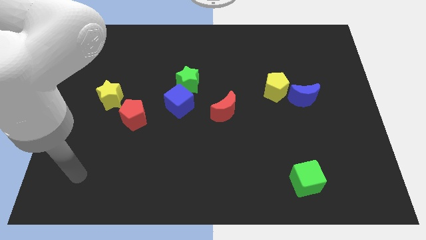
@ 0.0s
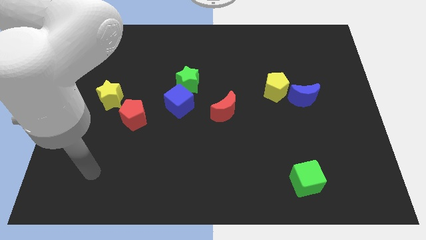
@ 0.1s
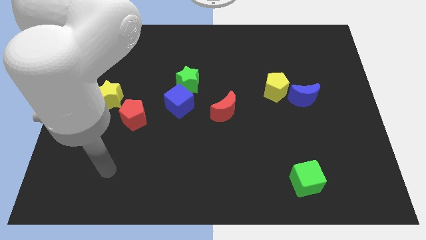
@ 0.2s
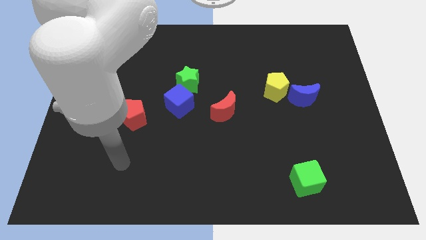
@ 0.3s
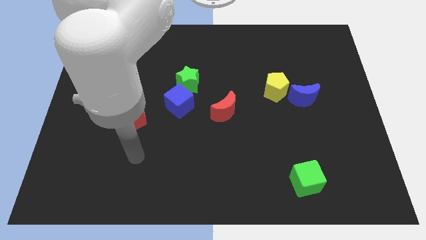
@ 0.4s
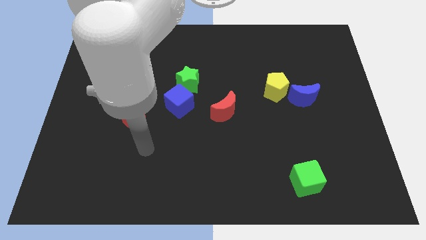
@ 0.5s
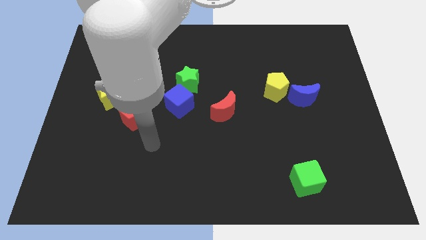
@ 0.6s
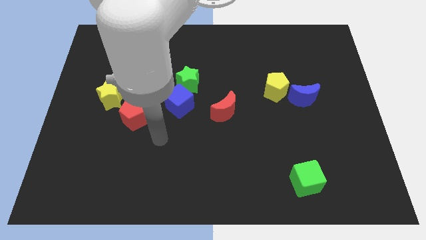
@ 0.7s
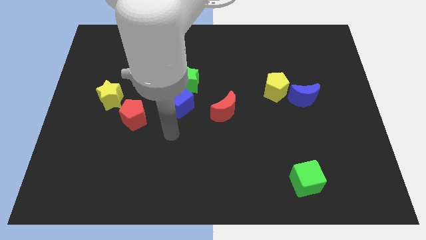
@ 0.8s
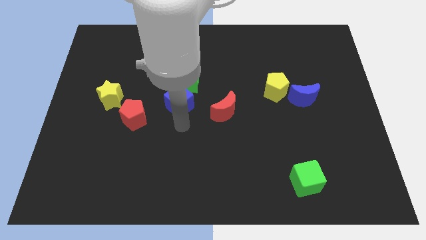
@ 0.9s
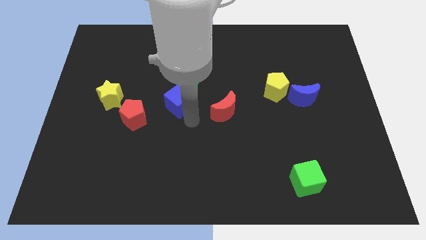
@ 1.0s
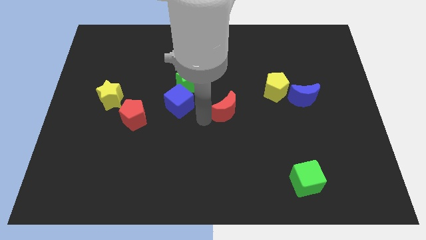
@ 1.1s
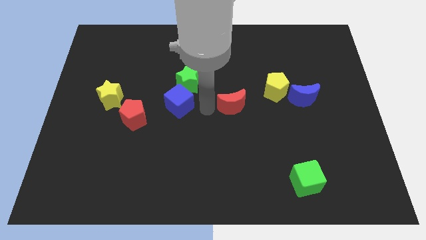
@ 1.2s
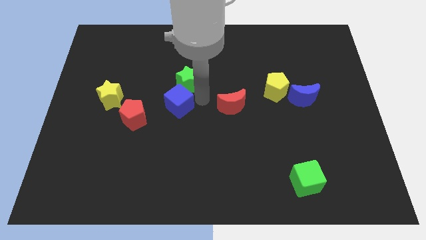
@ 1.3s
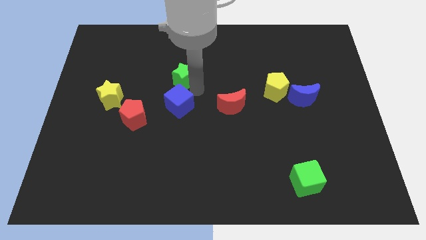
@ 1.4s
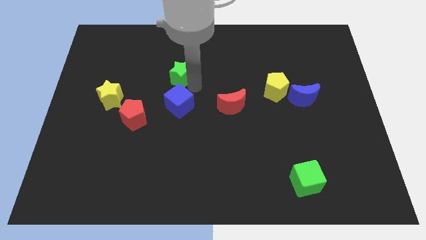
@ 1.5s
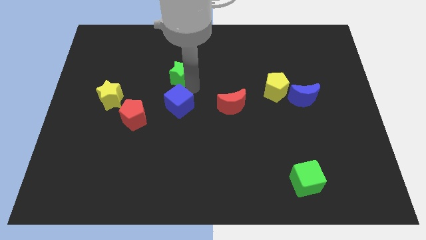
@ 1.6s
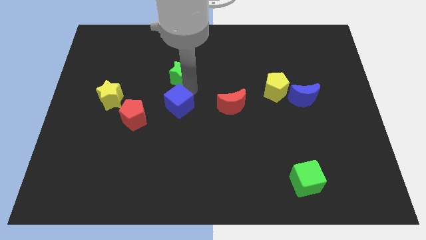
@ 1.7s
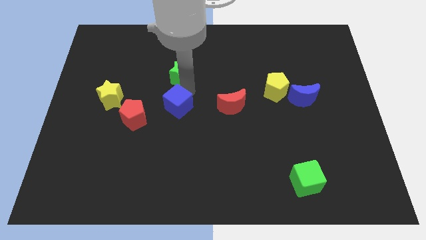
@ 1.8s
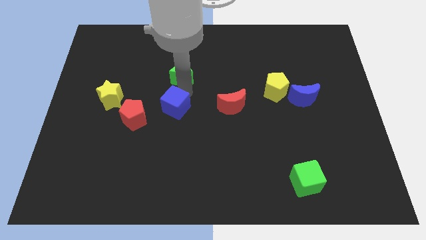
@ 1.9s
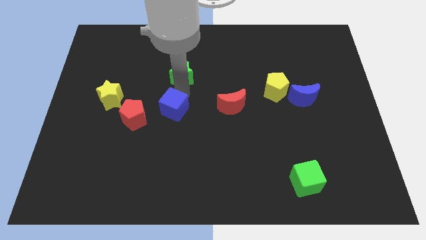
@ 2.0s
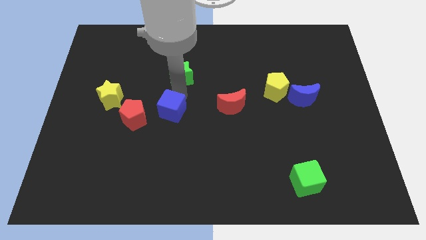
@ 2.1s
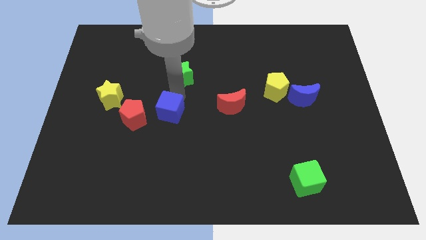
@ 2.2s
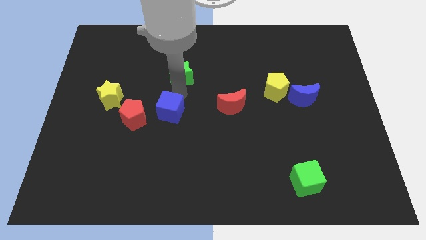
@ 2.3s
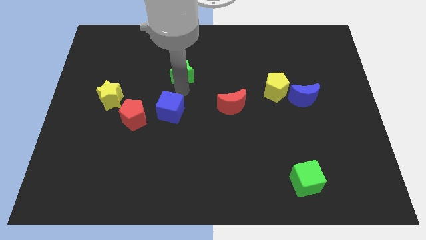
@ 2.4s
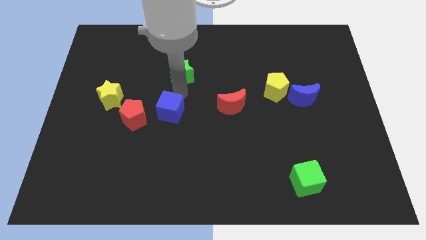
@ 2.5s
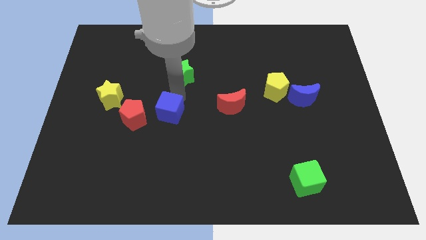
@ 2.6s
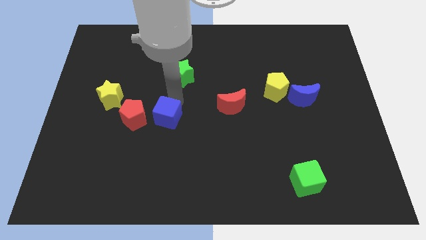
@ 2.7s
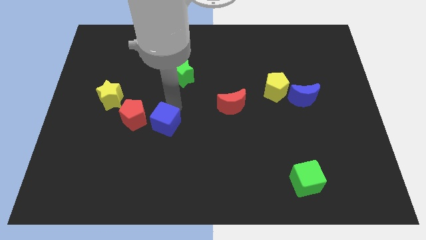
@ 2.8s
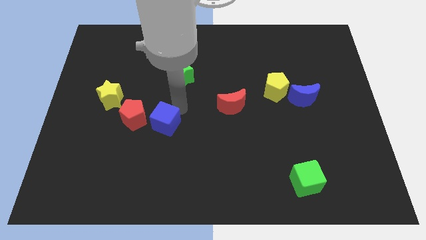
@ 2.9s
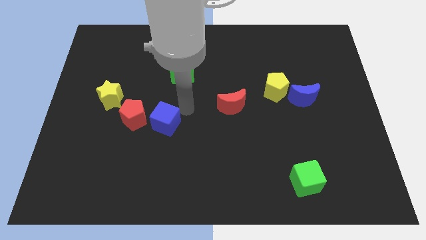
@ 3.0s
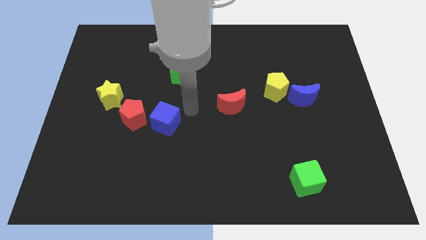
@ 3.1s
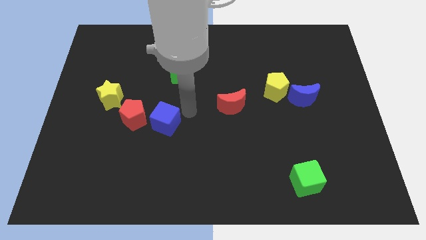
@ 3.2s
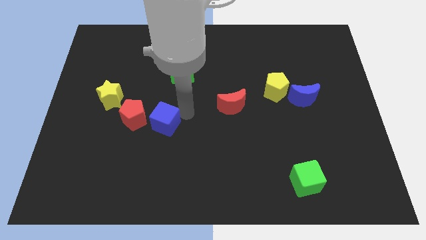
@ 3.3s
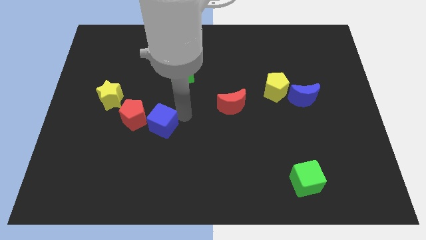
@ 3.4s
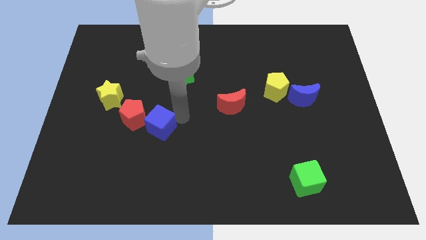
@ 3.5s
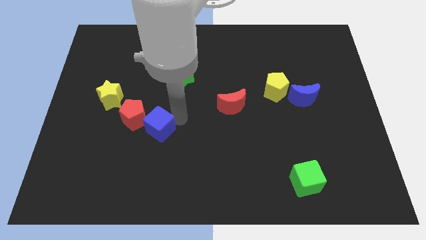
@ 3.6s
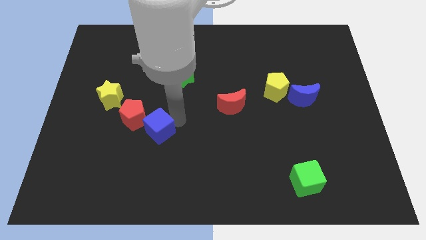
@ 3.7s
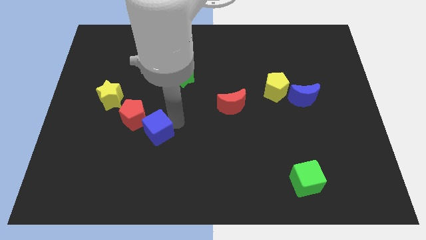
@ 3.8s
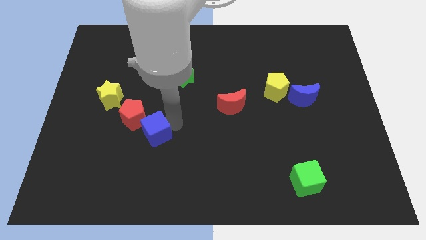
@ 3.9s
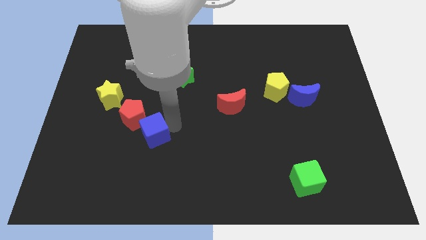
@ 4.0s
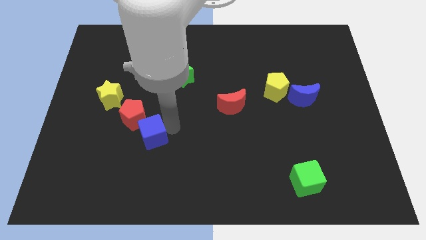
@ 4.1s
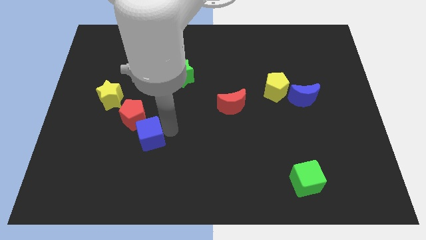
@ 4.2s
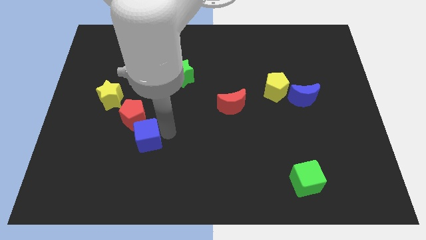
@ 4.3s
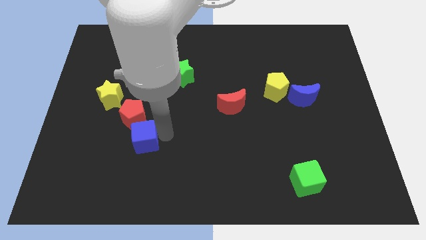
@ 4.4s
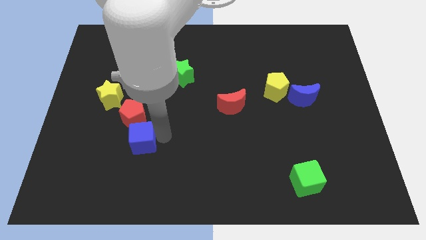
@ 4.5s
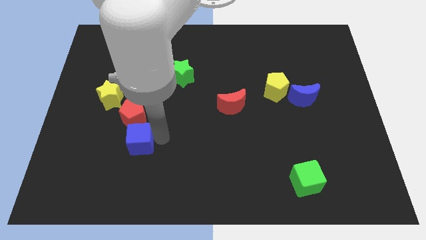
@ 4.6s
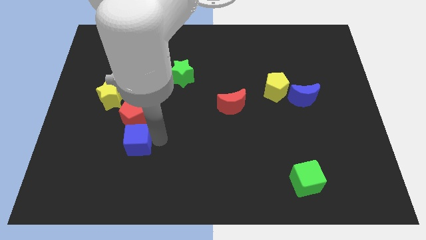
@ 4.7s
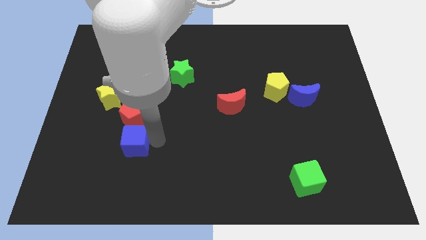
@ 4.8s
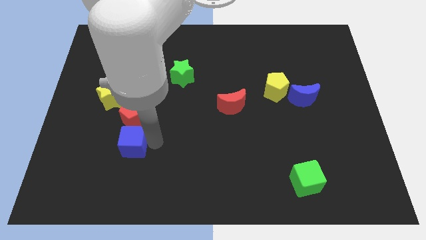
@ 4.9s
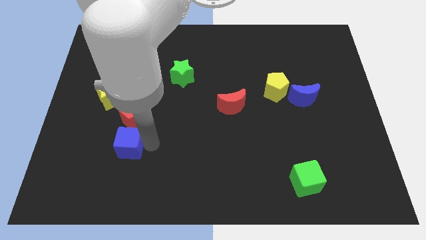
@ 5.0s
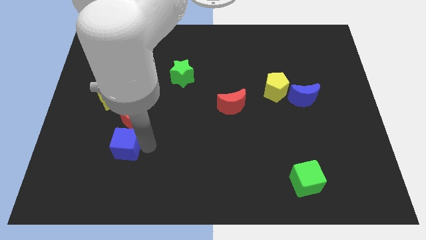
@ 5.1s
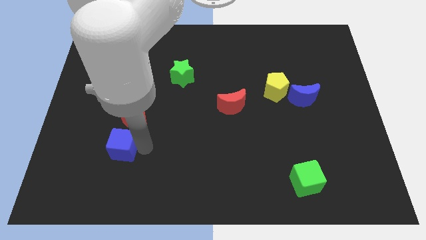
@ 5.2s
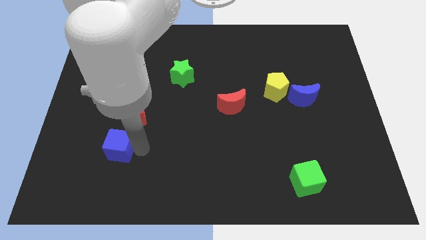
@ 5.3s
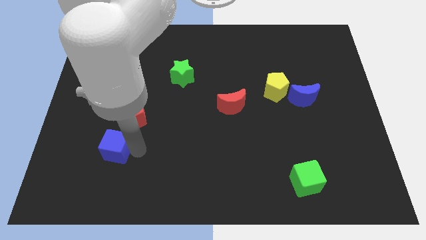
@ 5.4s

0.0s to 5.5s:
slide the blue cube below the yellow star

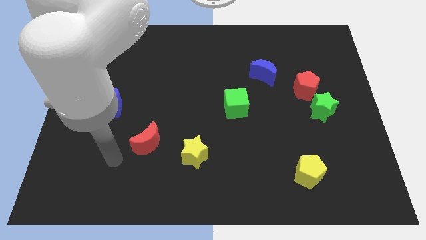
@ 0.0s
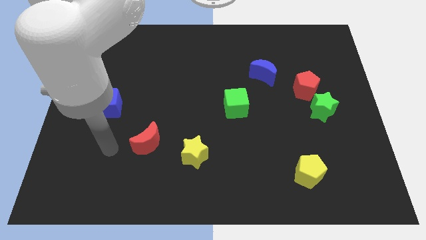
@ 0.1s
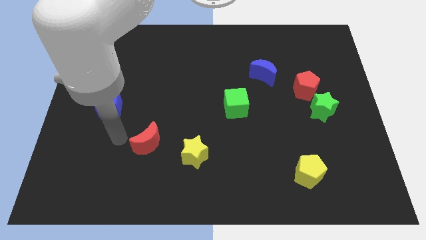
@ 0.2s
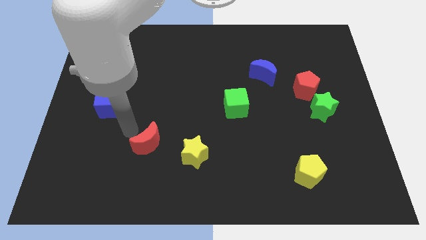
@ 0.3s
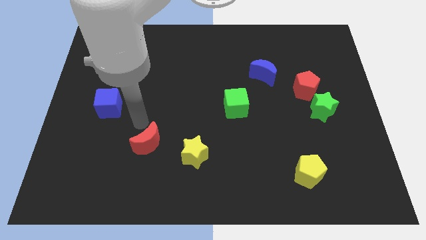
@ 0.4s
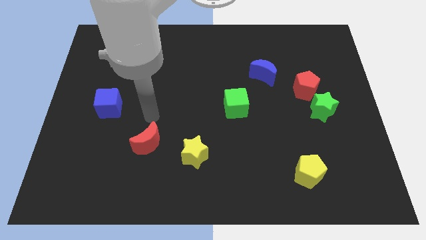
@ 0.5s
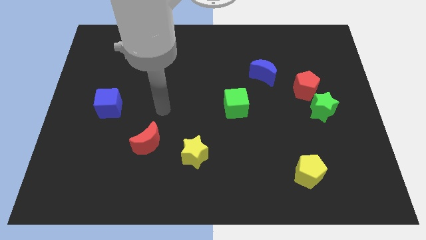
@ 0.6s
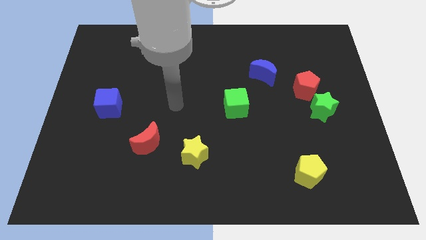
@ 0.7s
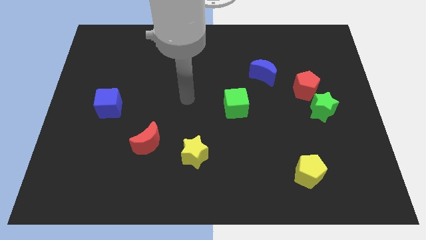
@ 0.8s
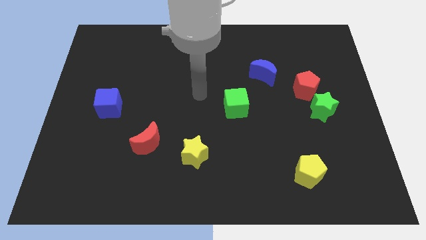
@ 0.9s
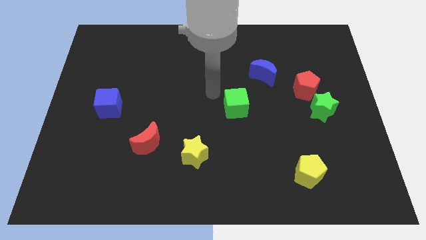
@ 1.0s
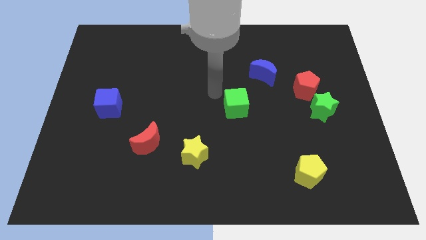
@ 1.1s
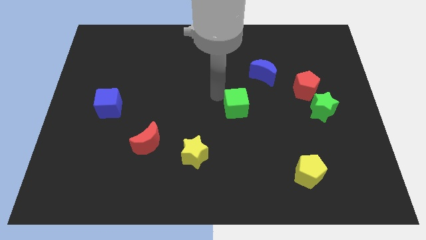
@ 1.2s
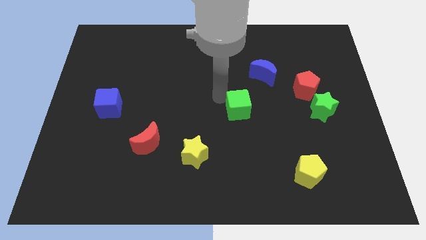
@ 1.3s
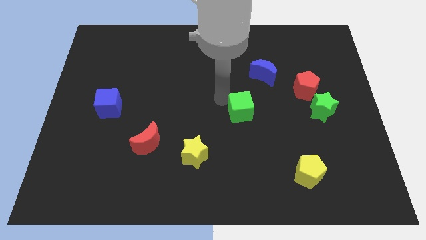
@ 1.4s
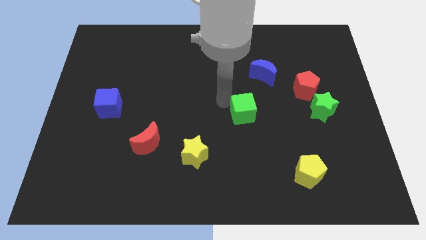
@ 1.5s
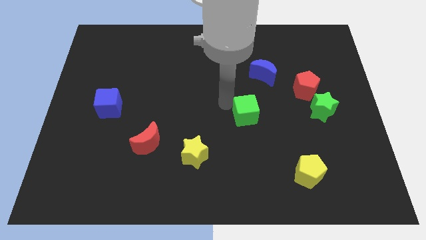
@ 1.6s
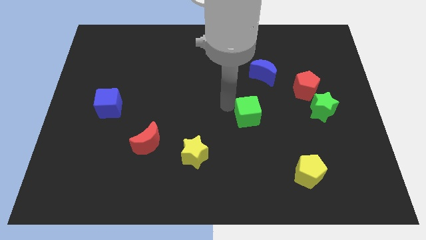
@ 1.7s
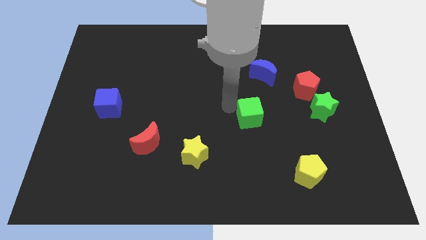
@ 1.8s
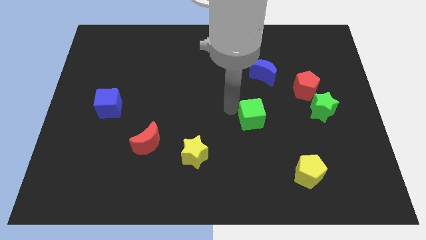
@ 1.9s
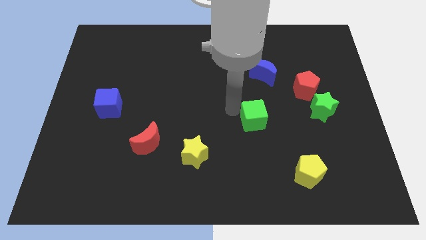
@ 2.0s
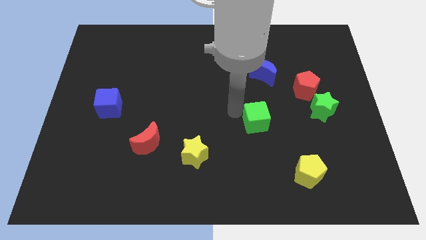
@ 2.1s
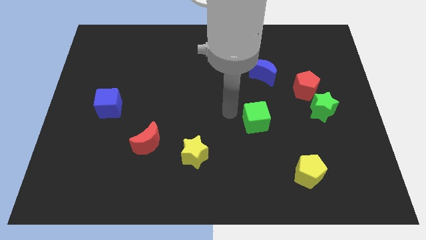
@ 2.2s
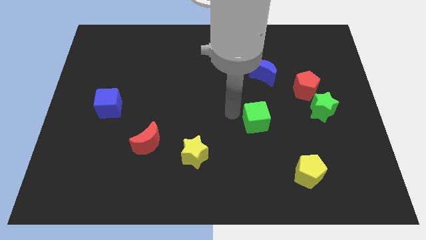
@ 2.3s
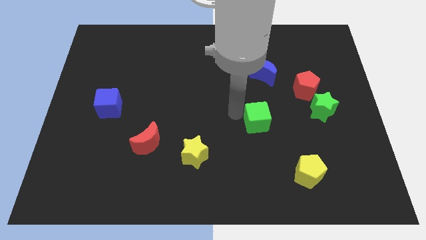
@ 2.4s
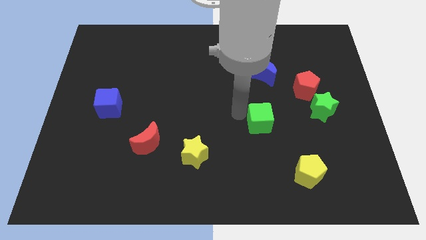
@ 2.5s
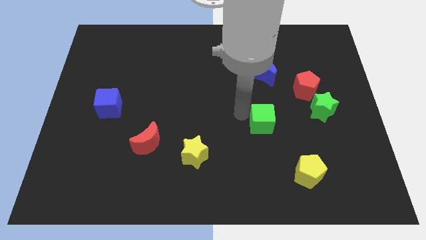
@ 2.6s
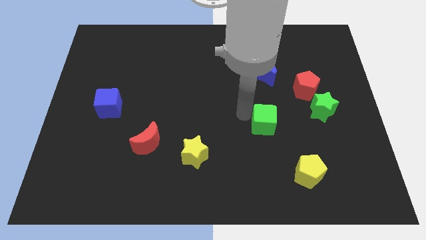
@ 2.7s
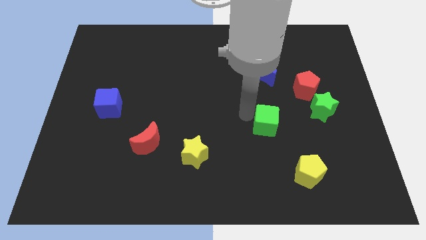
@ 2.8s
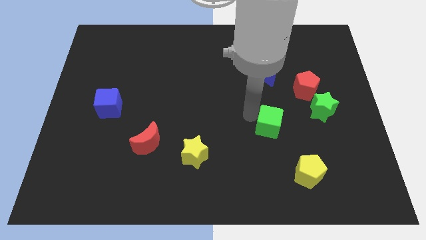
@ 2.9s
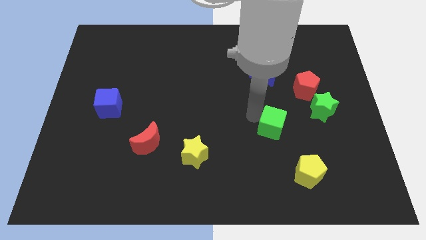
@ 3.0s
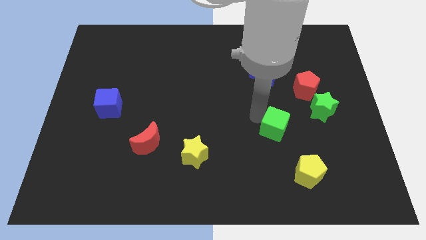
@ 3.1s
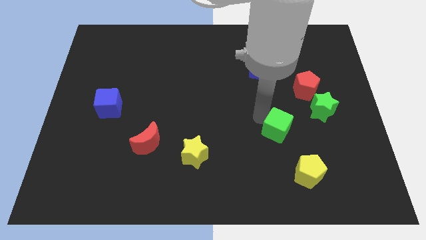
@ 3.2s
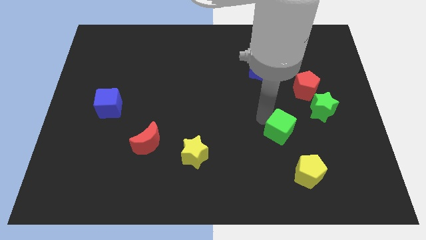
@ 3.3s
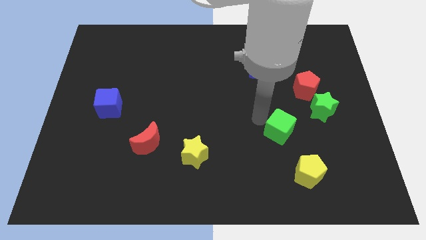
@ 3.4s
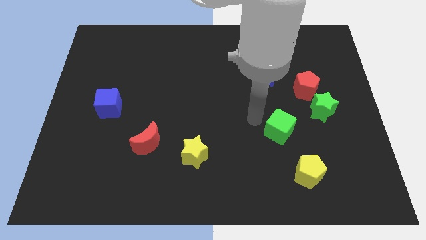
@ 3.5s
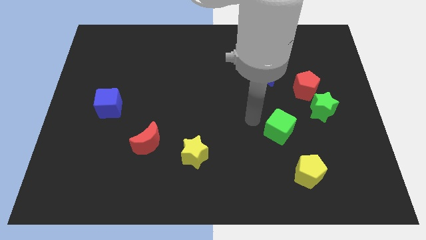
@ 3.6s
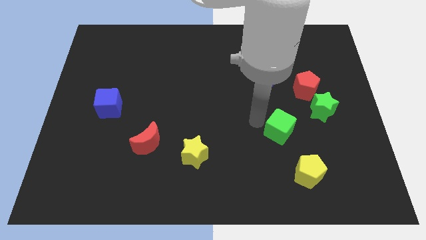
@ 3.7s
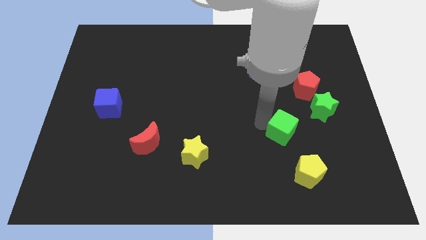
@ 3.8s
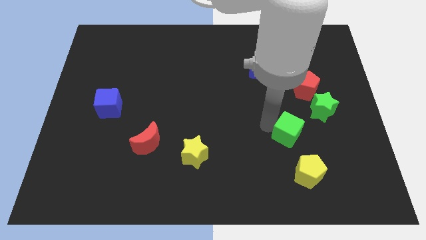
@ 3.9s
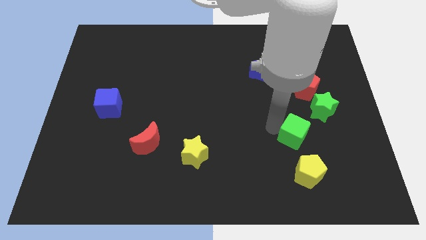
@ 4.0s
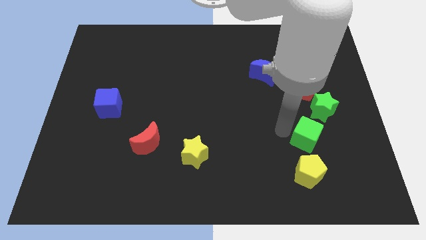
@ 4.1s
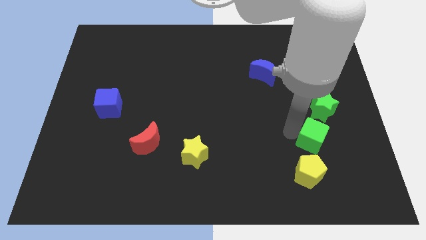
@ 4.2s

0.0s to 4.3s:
push the green cube to the top right of the yellow pentagon
